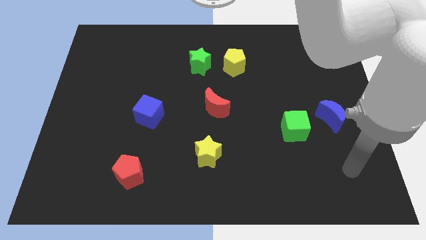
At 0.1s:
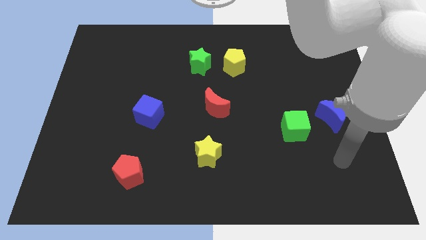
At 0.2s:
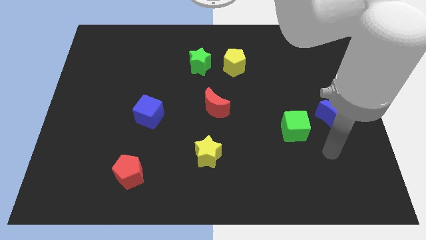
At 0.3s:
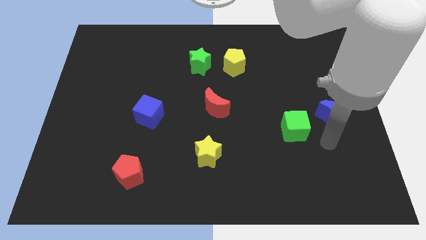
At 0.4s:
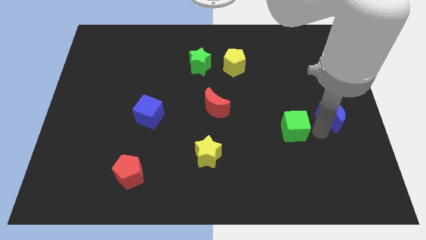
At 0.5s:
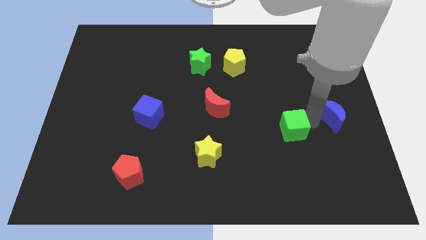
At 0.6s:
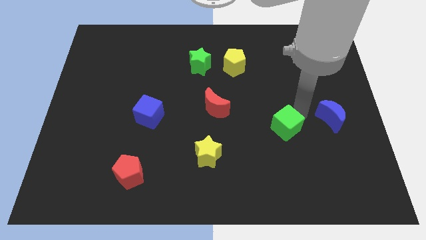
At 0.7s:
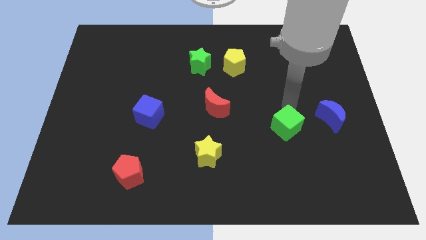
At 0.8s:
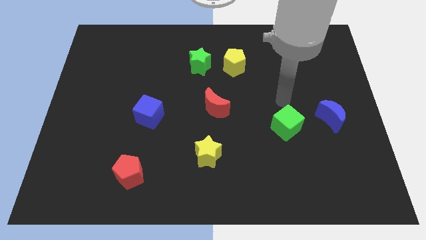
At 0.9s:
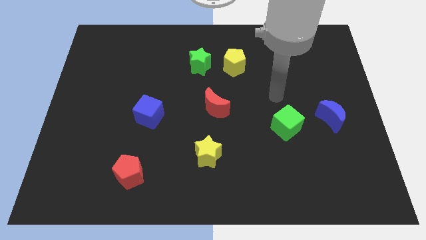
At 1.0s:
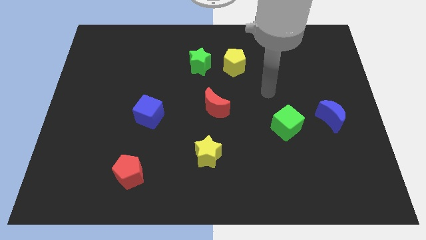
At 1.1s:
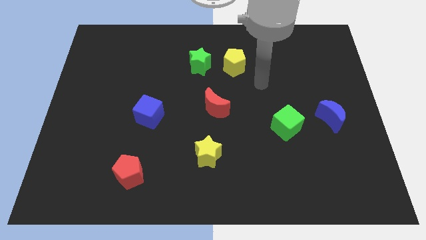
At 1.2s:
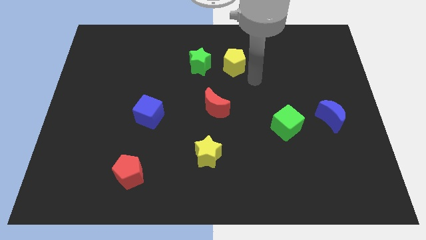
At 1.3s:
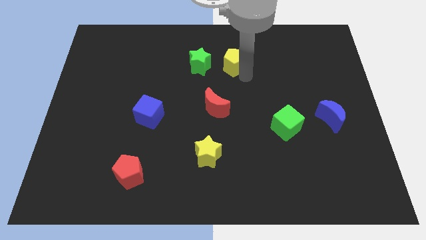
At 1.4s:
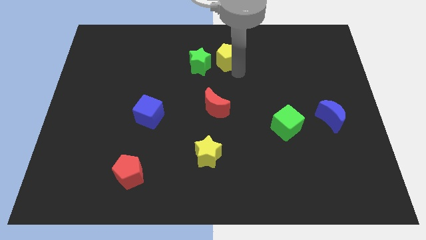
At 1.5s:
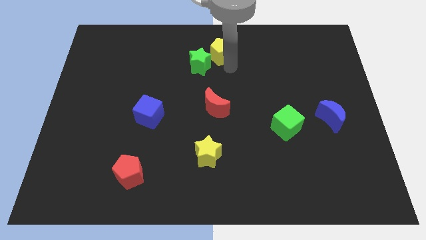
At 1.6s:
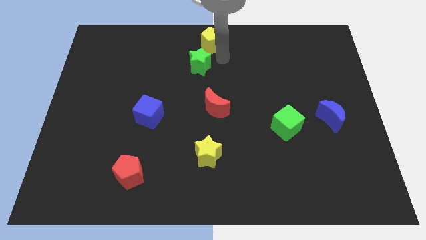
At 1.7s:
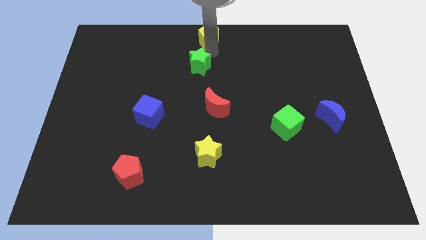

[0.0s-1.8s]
separate the green star from the yellow pentagon

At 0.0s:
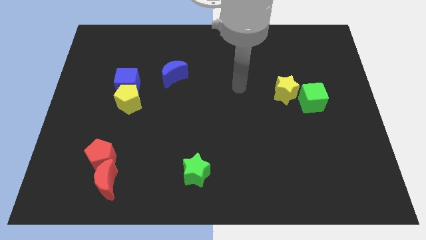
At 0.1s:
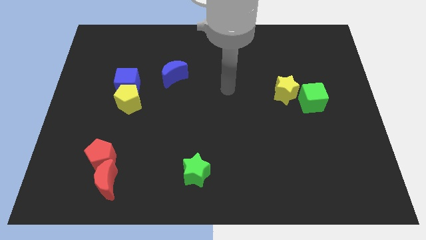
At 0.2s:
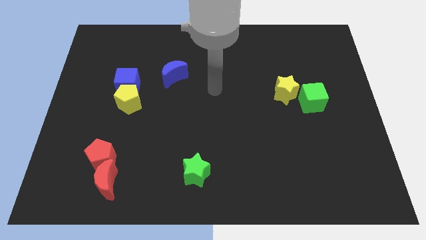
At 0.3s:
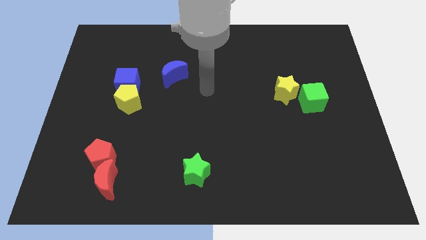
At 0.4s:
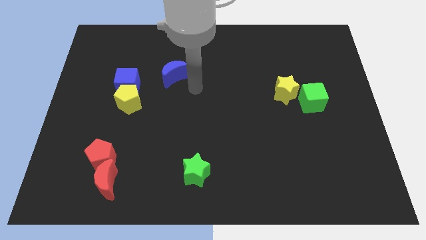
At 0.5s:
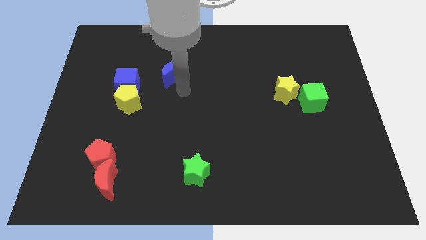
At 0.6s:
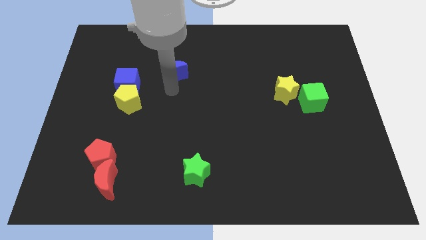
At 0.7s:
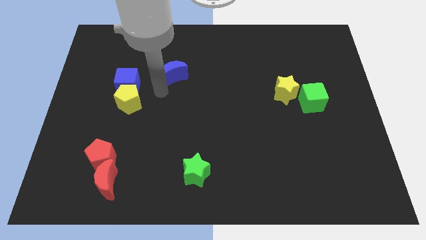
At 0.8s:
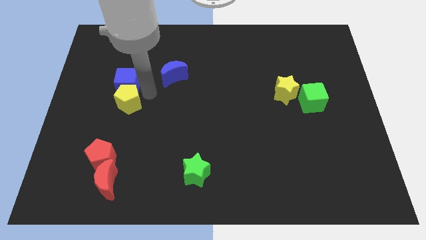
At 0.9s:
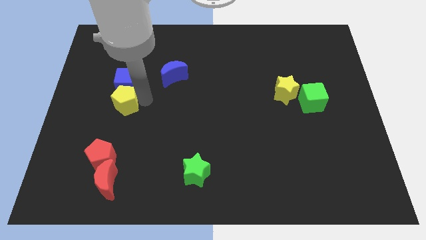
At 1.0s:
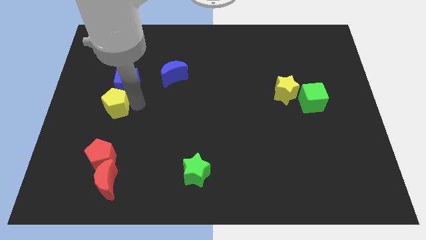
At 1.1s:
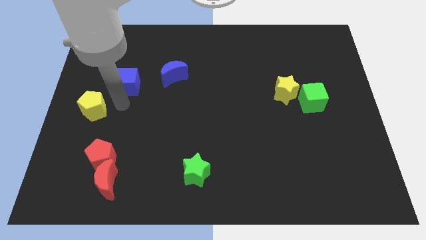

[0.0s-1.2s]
separate the blue cube from the yellow pentagon

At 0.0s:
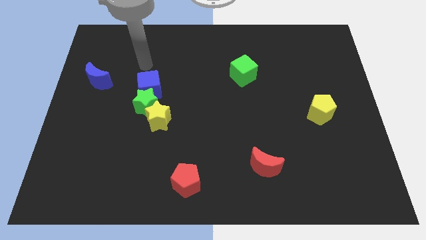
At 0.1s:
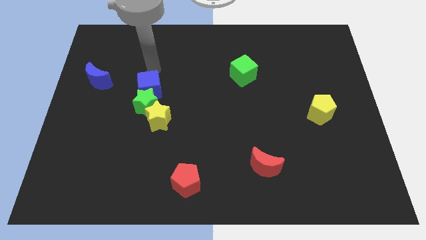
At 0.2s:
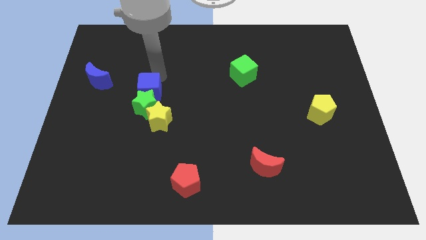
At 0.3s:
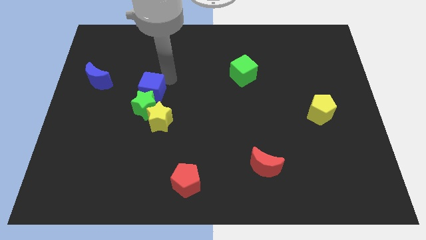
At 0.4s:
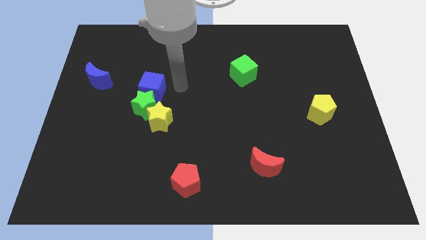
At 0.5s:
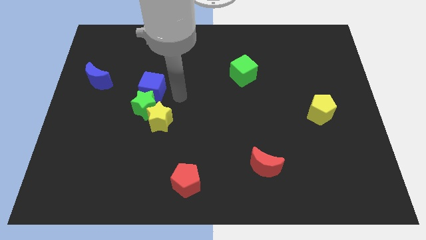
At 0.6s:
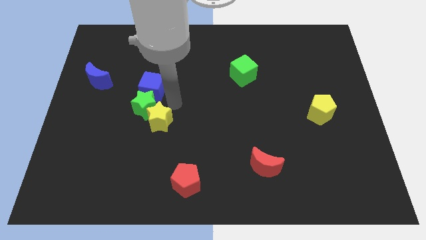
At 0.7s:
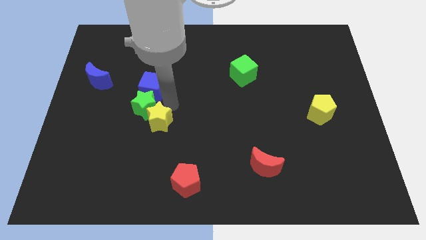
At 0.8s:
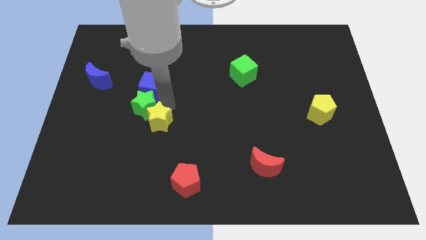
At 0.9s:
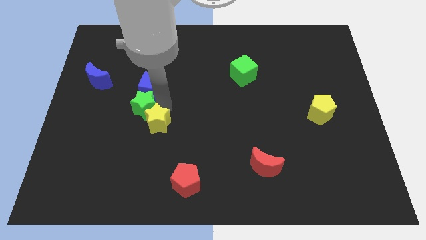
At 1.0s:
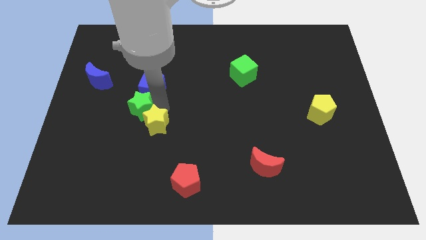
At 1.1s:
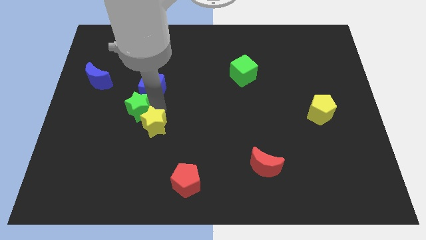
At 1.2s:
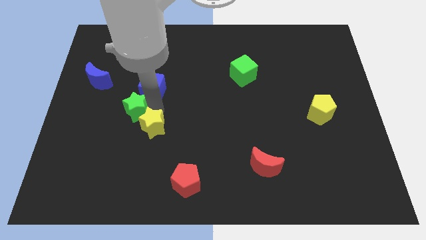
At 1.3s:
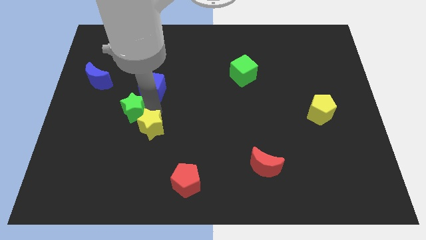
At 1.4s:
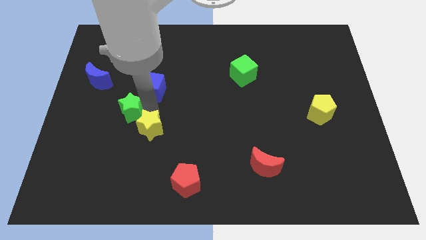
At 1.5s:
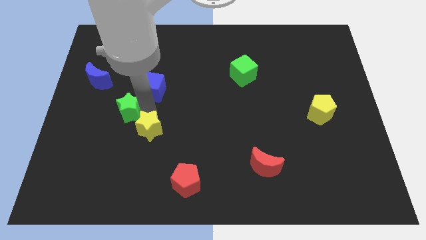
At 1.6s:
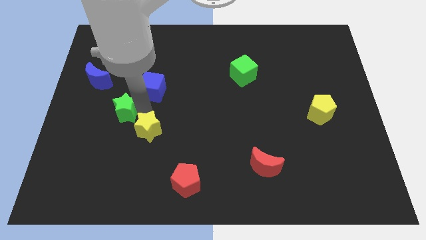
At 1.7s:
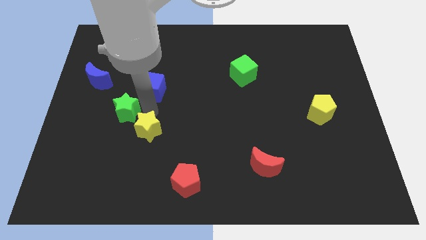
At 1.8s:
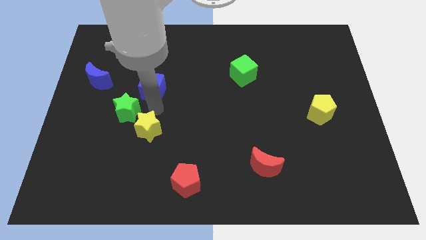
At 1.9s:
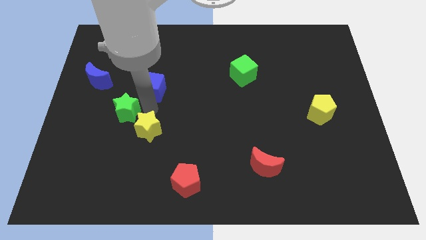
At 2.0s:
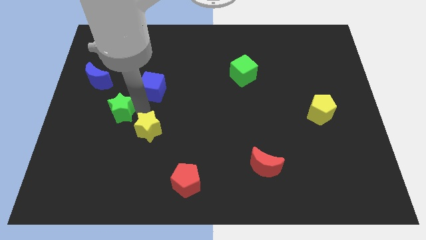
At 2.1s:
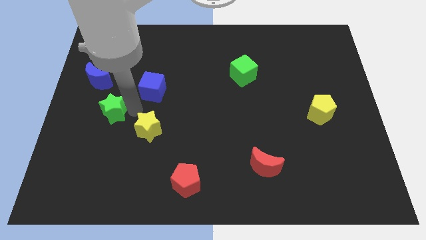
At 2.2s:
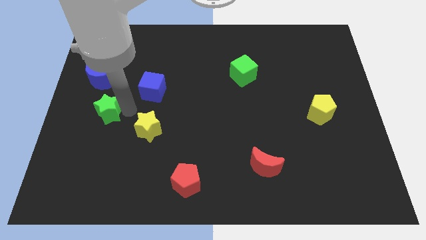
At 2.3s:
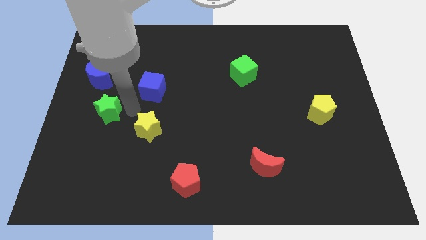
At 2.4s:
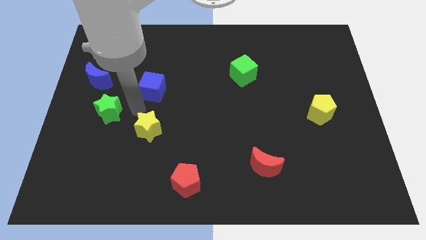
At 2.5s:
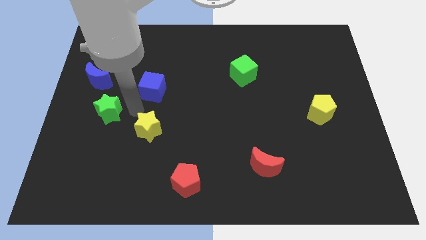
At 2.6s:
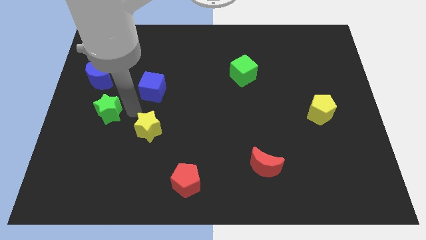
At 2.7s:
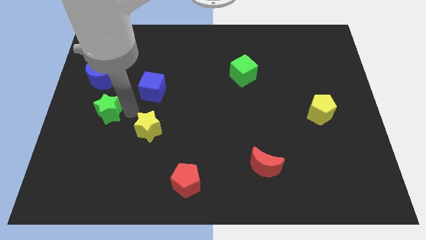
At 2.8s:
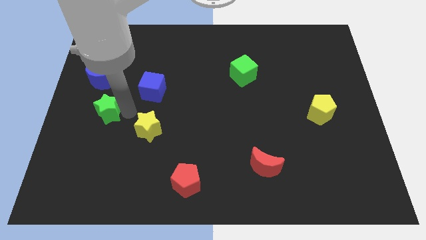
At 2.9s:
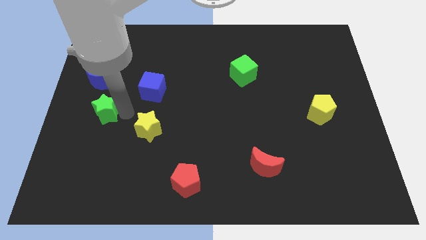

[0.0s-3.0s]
separate the green star from the yellow star and blue cube

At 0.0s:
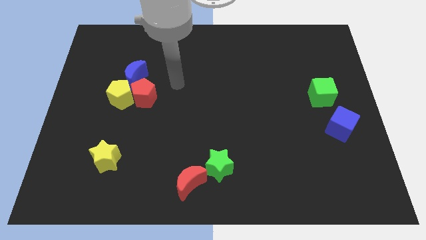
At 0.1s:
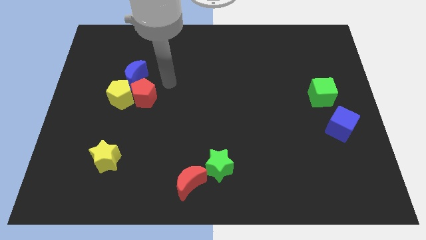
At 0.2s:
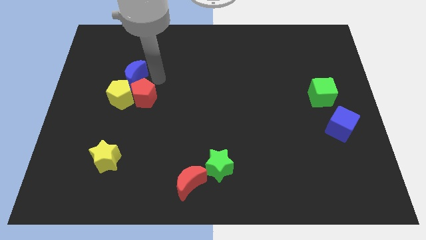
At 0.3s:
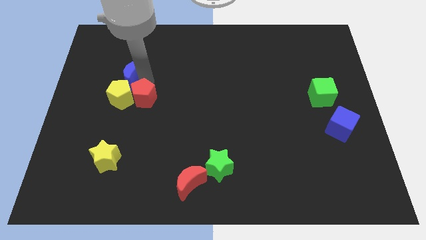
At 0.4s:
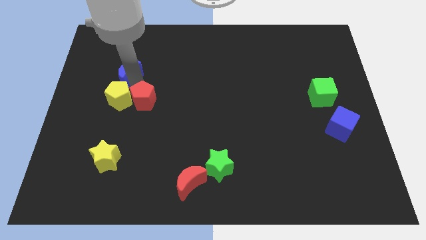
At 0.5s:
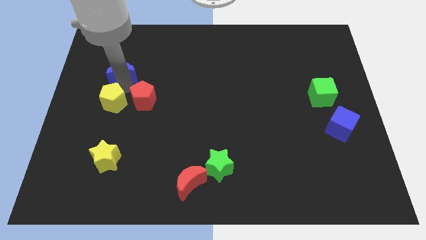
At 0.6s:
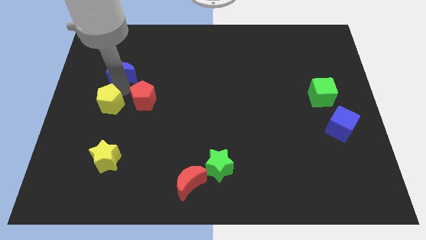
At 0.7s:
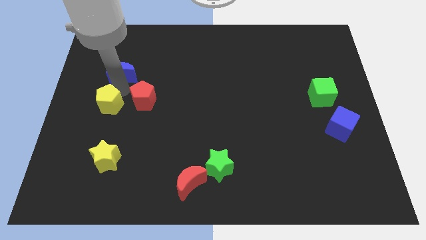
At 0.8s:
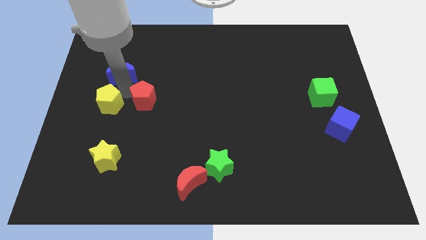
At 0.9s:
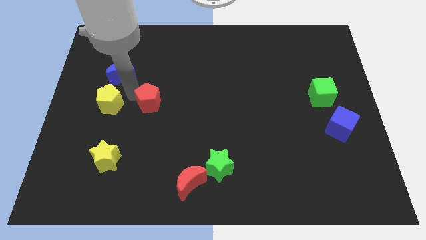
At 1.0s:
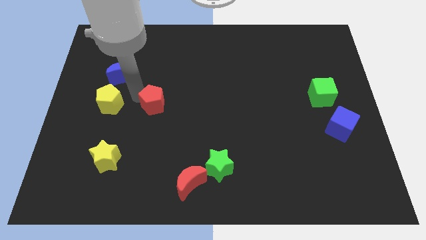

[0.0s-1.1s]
separate the red pentagon from the yellow pentagon and blue moon

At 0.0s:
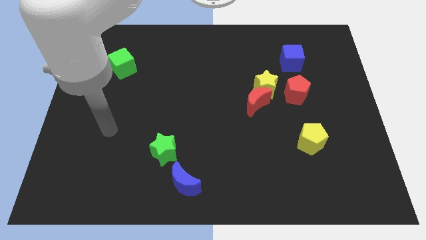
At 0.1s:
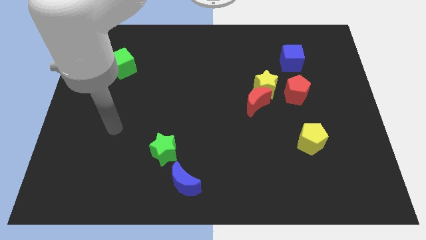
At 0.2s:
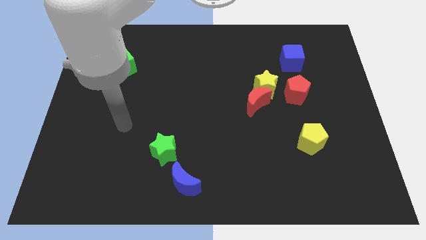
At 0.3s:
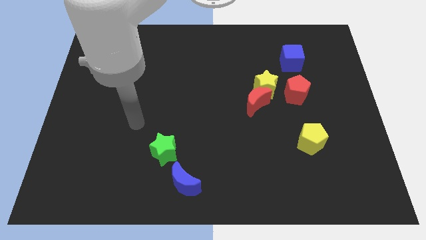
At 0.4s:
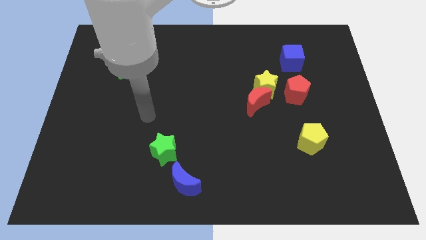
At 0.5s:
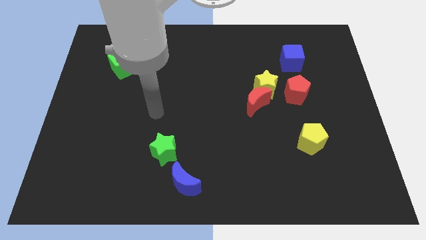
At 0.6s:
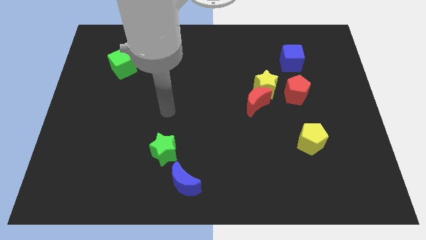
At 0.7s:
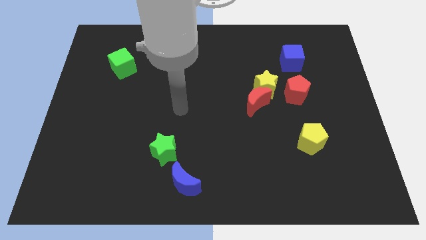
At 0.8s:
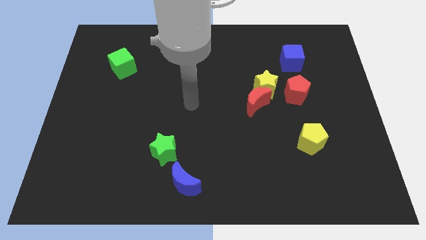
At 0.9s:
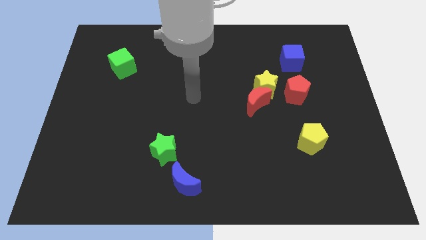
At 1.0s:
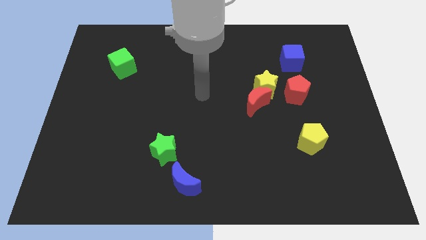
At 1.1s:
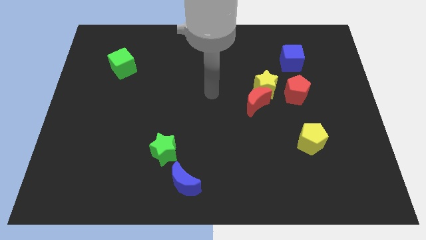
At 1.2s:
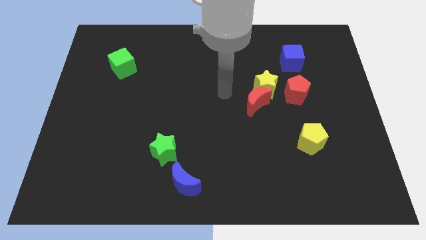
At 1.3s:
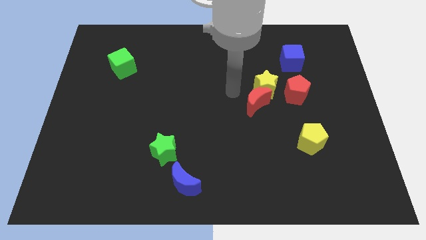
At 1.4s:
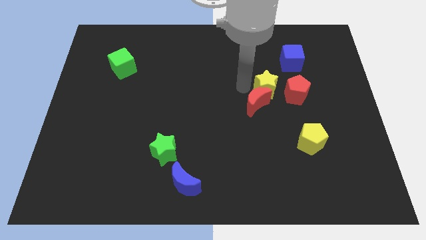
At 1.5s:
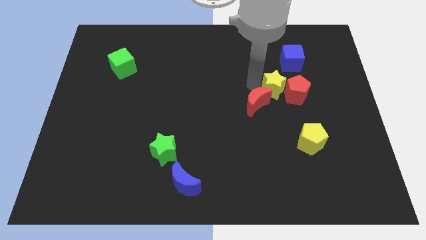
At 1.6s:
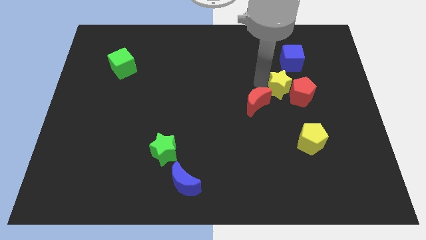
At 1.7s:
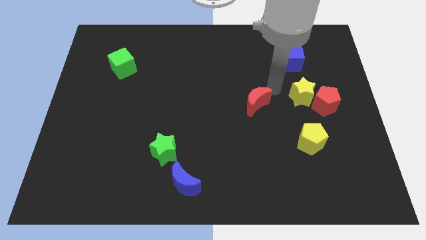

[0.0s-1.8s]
pull the red moon apart from the yellow star

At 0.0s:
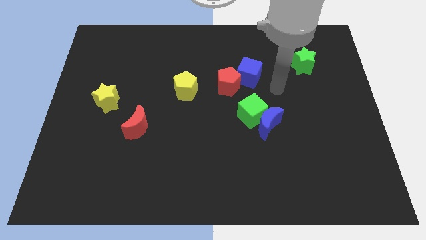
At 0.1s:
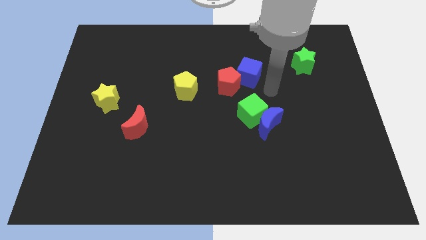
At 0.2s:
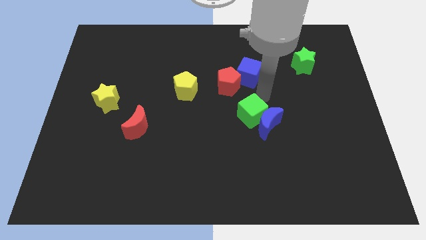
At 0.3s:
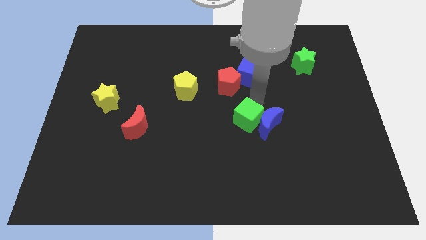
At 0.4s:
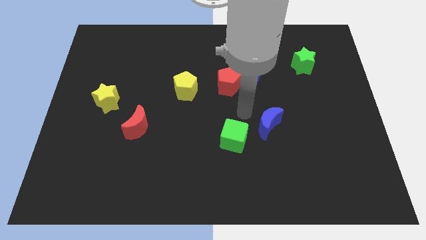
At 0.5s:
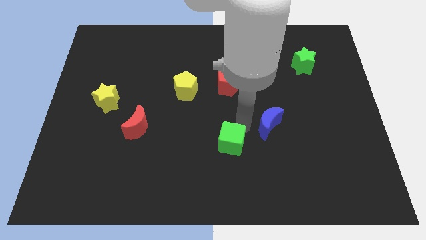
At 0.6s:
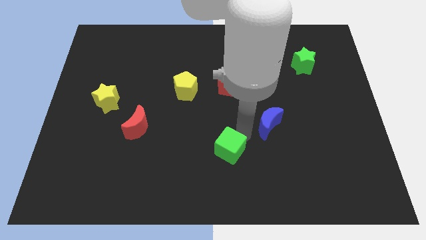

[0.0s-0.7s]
separate the blue moon from the green cube
